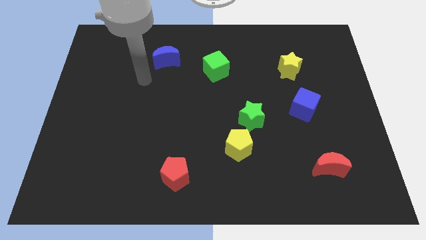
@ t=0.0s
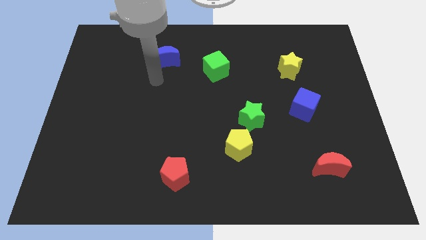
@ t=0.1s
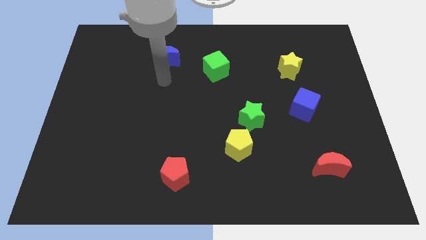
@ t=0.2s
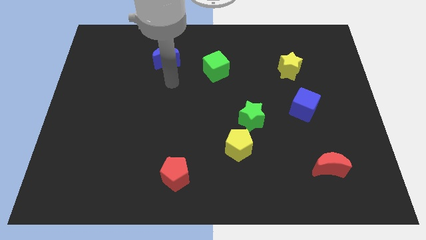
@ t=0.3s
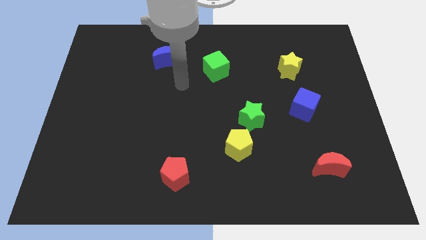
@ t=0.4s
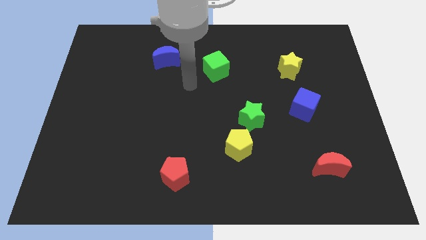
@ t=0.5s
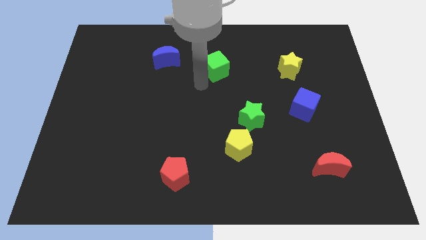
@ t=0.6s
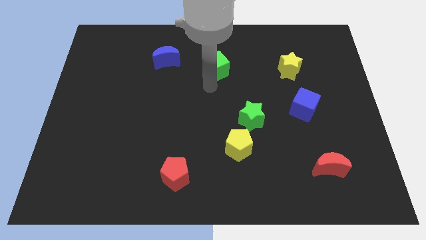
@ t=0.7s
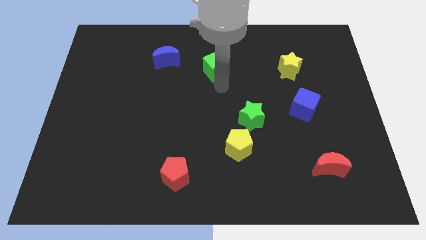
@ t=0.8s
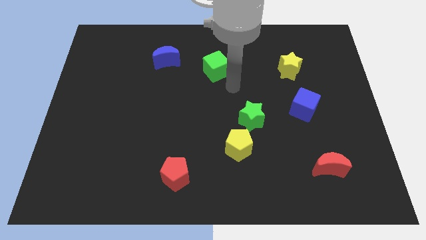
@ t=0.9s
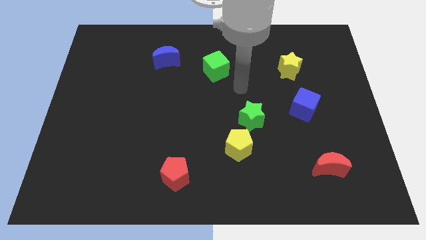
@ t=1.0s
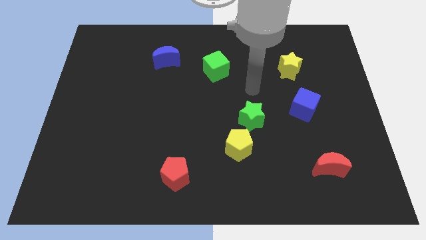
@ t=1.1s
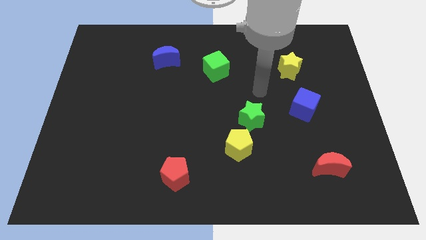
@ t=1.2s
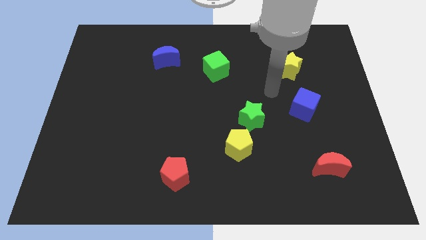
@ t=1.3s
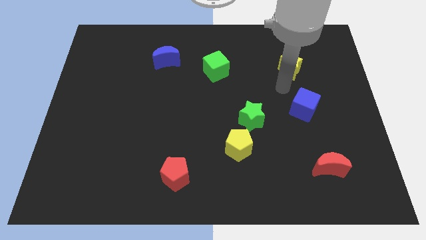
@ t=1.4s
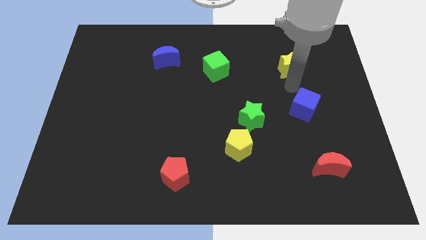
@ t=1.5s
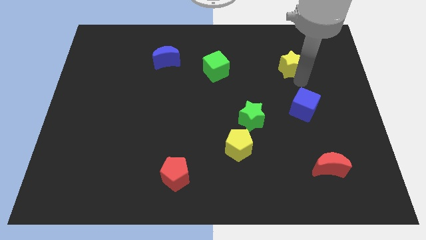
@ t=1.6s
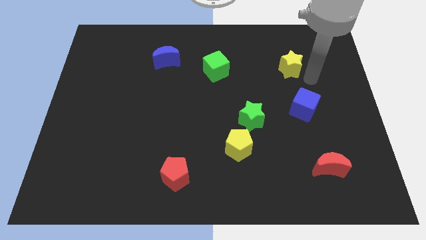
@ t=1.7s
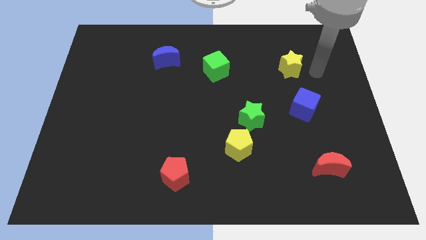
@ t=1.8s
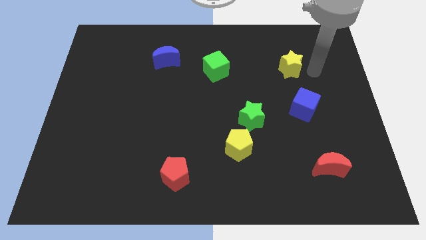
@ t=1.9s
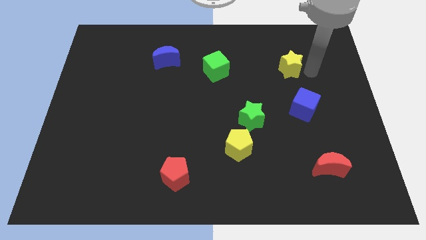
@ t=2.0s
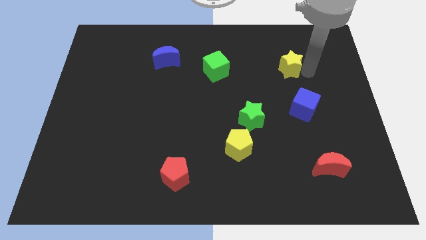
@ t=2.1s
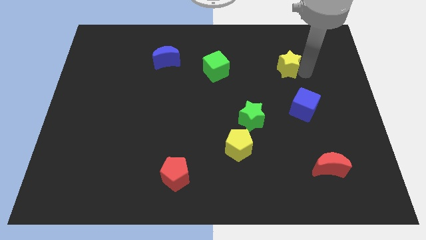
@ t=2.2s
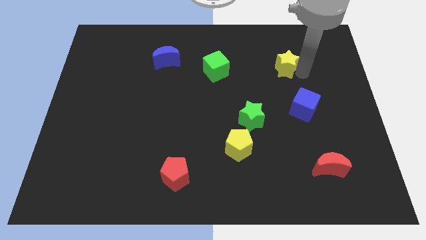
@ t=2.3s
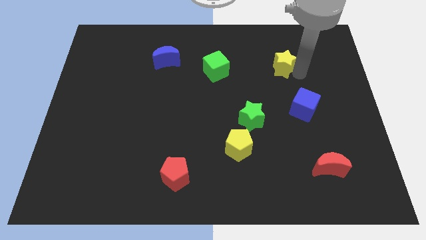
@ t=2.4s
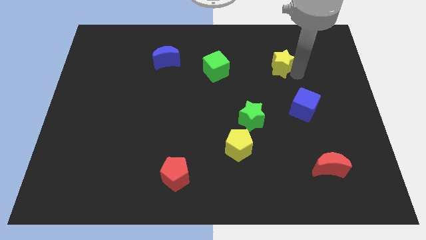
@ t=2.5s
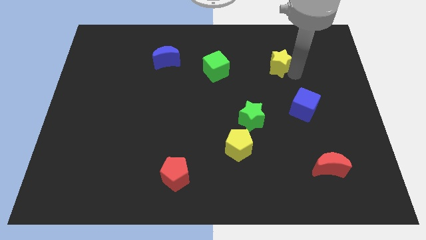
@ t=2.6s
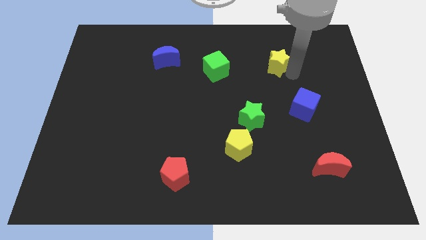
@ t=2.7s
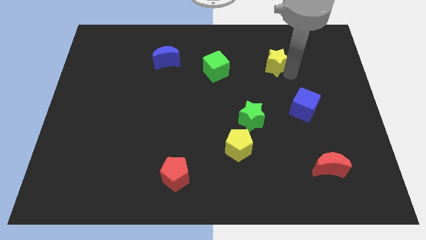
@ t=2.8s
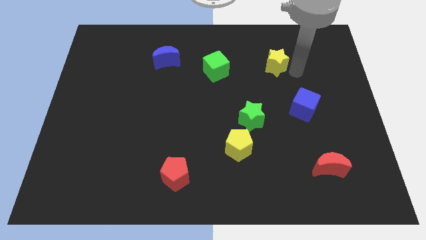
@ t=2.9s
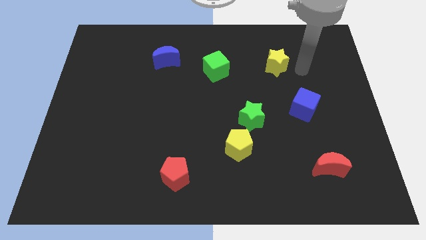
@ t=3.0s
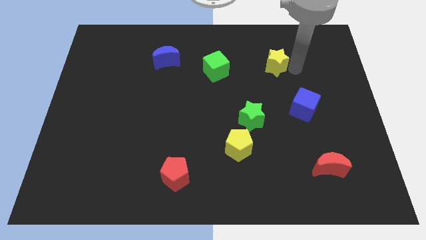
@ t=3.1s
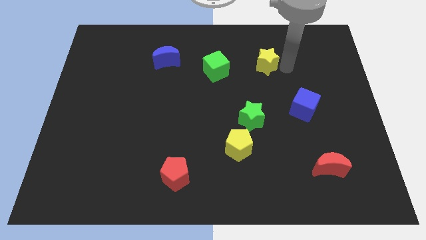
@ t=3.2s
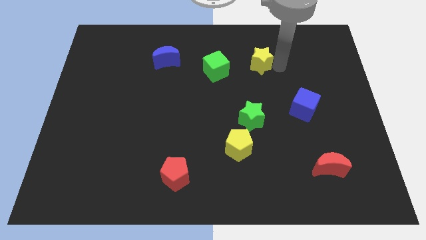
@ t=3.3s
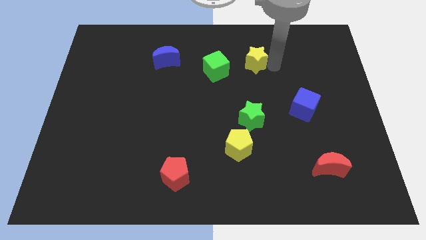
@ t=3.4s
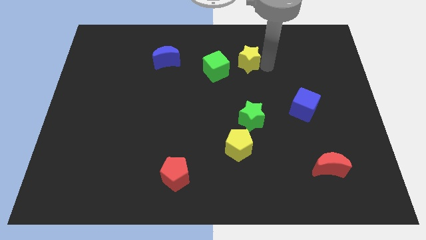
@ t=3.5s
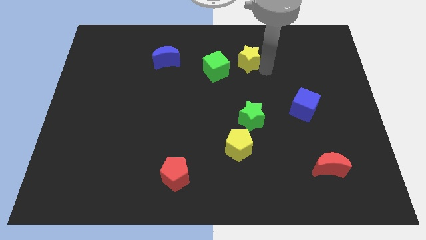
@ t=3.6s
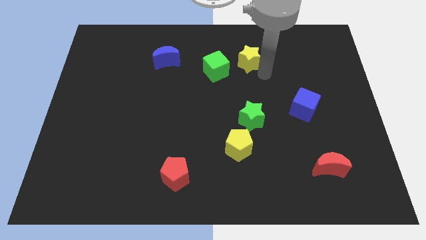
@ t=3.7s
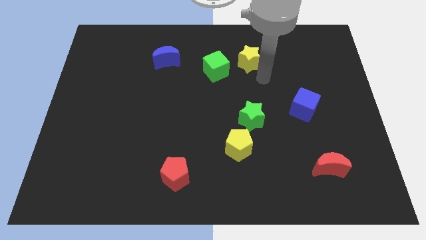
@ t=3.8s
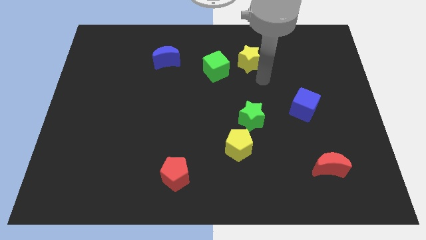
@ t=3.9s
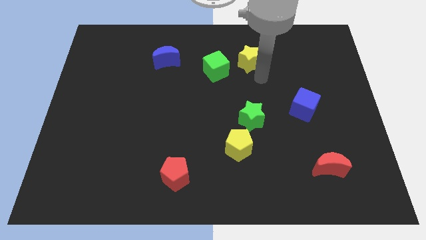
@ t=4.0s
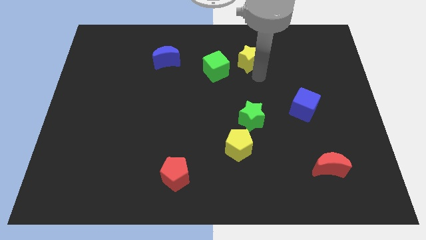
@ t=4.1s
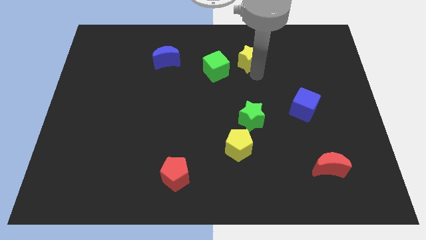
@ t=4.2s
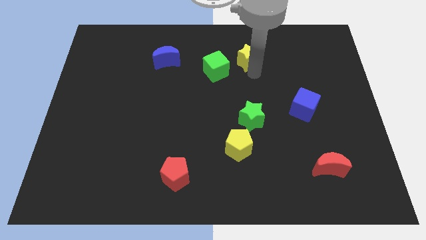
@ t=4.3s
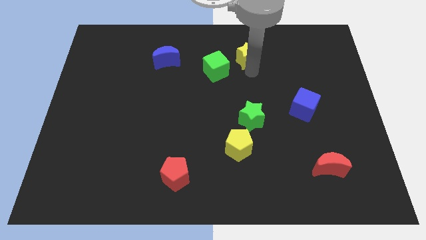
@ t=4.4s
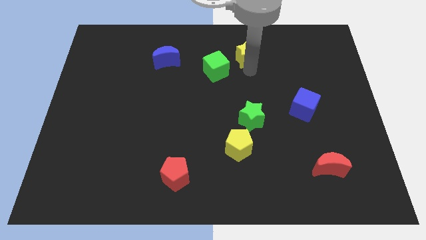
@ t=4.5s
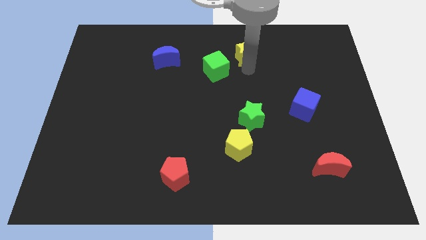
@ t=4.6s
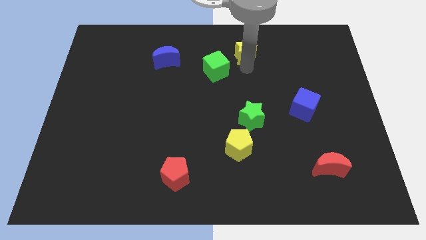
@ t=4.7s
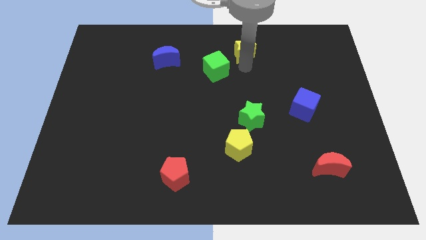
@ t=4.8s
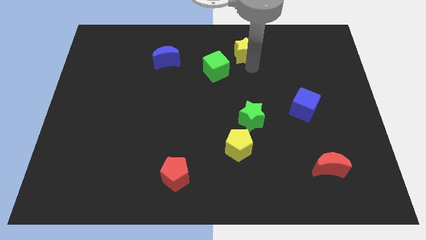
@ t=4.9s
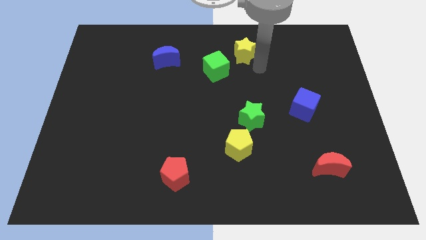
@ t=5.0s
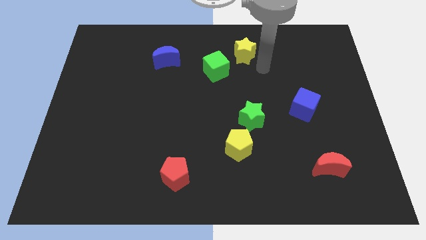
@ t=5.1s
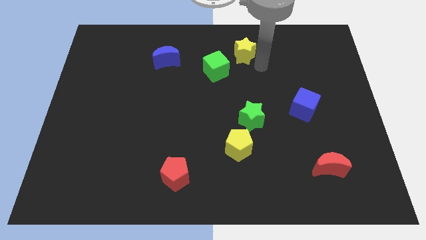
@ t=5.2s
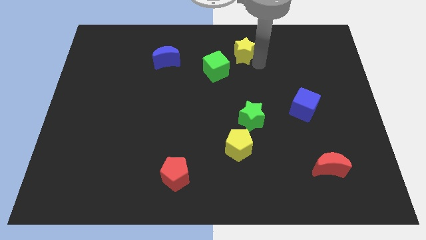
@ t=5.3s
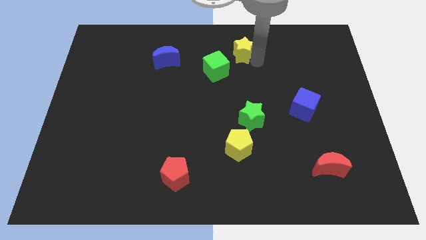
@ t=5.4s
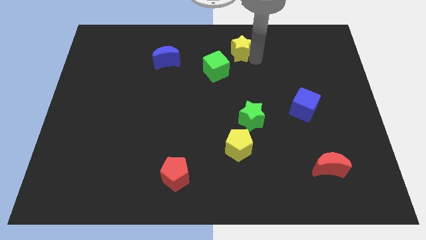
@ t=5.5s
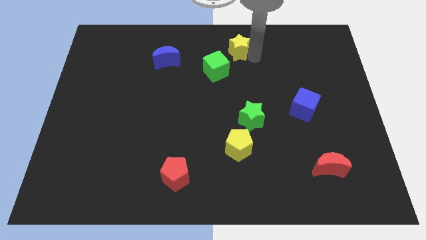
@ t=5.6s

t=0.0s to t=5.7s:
push the yellow star to the top side
